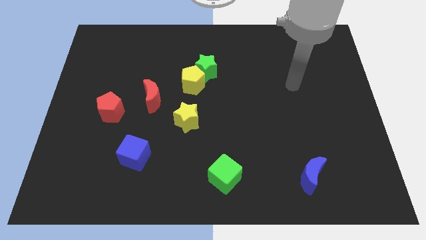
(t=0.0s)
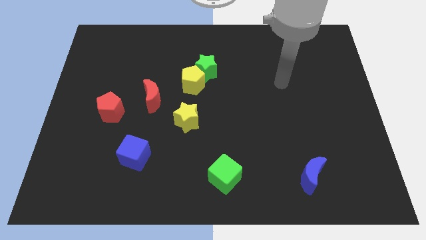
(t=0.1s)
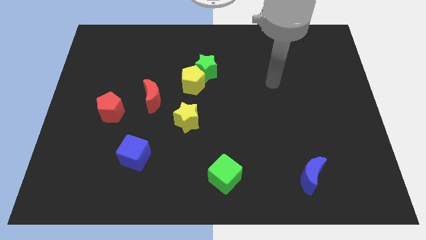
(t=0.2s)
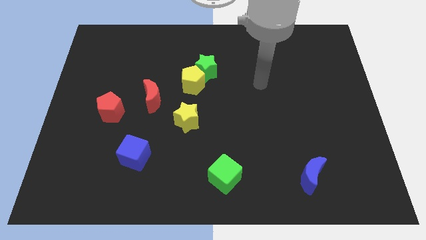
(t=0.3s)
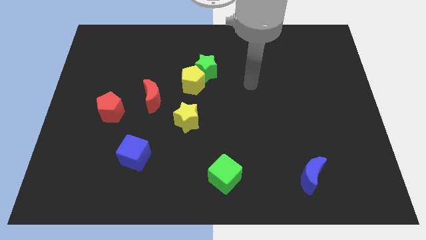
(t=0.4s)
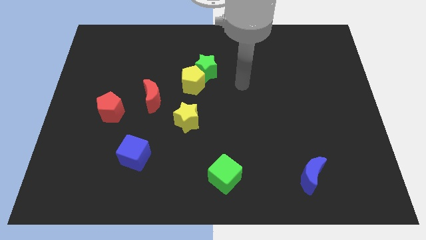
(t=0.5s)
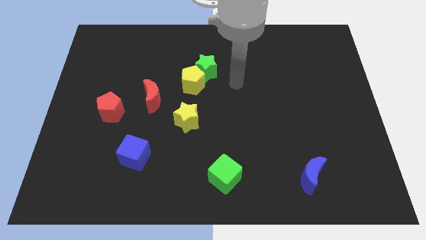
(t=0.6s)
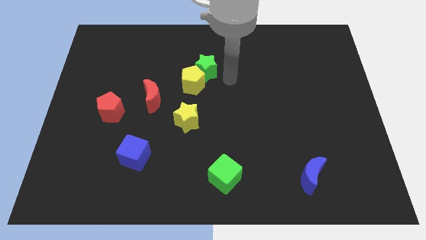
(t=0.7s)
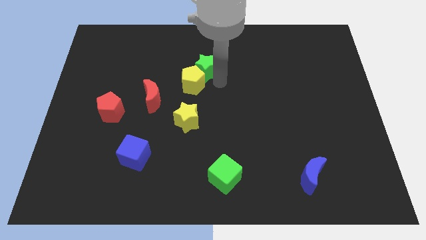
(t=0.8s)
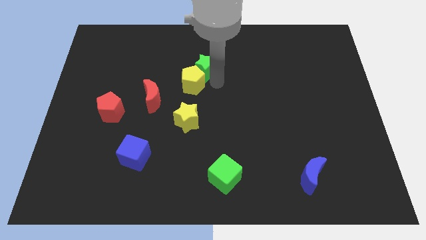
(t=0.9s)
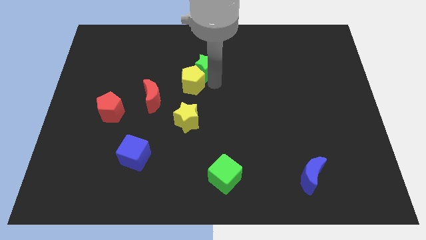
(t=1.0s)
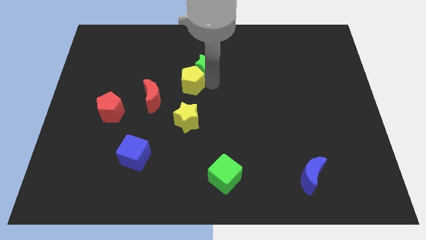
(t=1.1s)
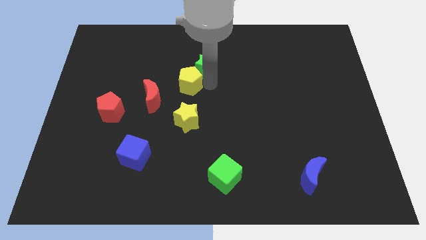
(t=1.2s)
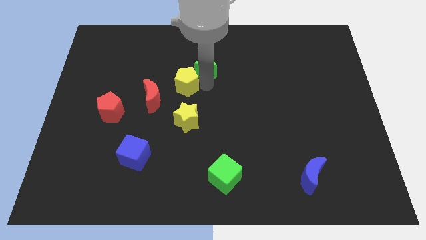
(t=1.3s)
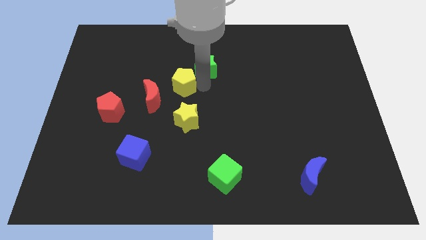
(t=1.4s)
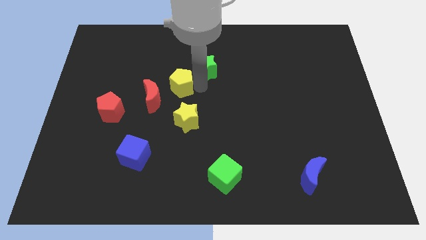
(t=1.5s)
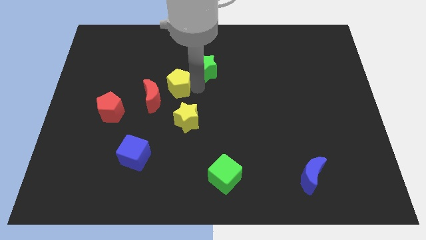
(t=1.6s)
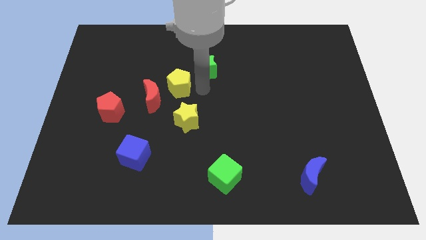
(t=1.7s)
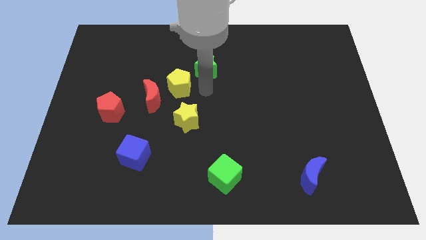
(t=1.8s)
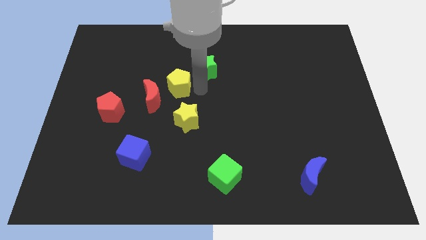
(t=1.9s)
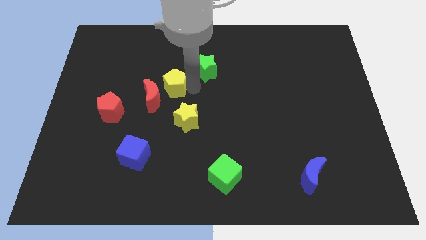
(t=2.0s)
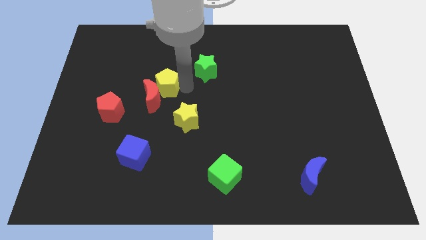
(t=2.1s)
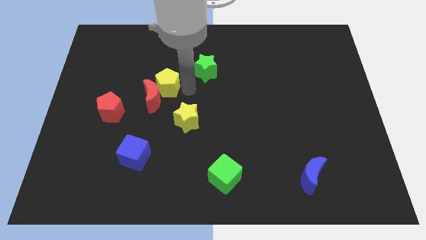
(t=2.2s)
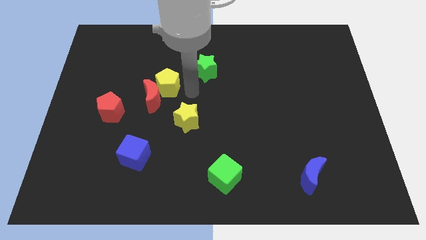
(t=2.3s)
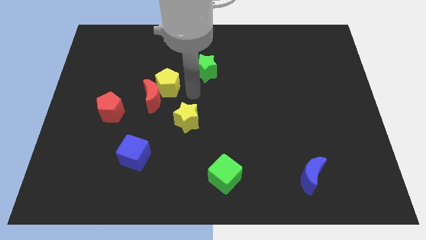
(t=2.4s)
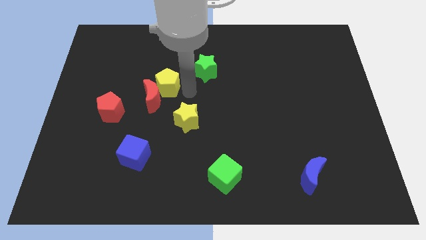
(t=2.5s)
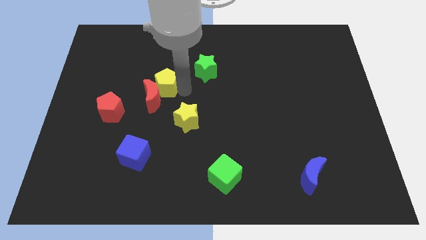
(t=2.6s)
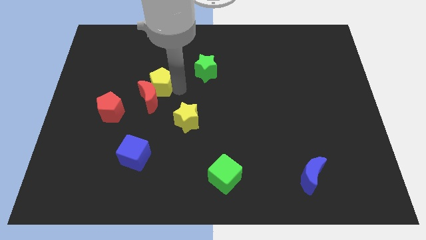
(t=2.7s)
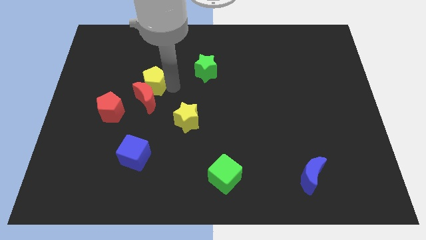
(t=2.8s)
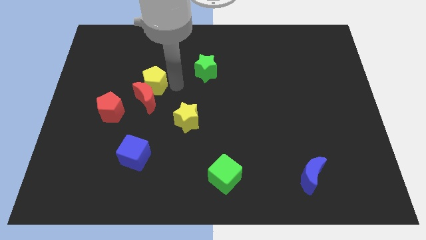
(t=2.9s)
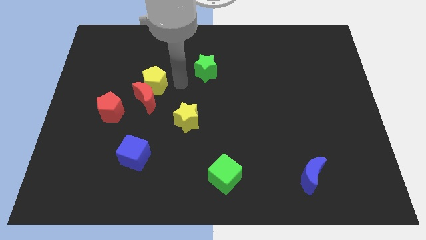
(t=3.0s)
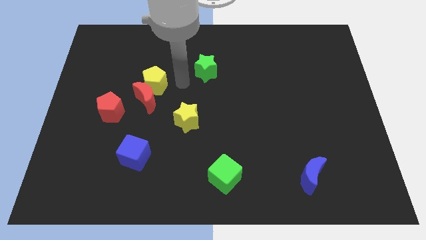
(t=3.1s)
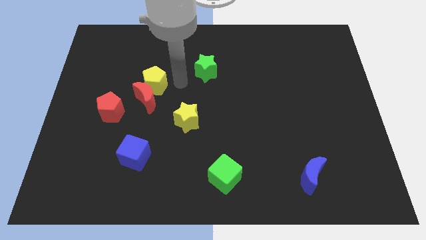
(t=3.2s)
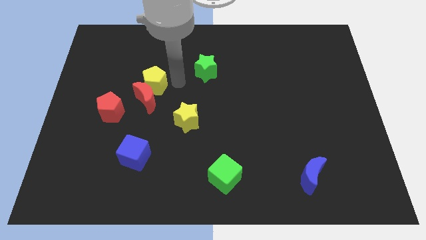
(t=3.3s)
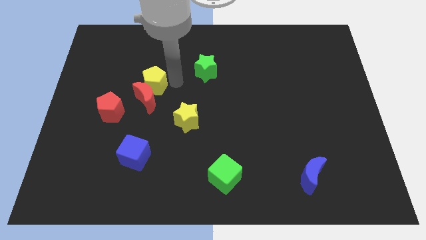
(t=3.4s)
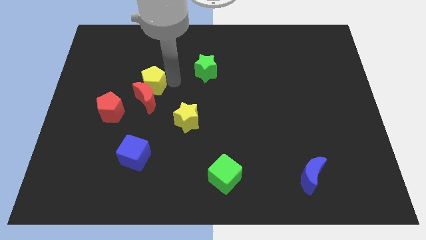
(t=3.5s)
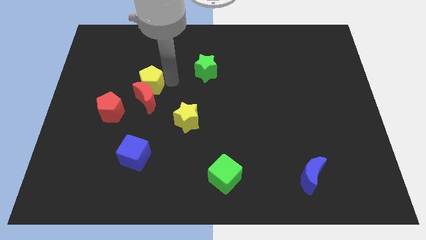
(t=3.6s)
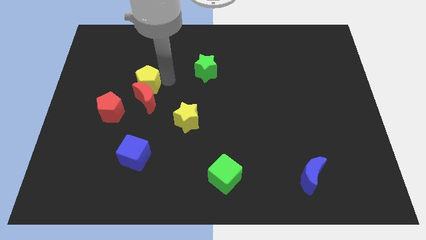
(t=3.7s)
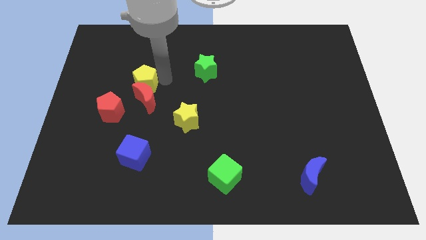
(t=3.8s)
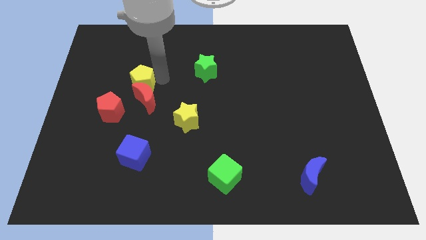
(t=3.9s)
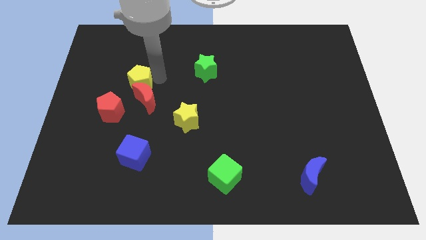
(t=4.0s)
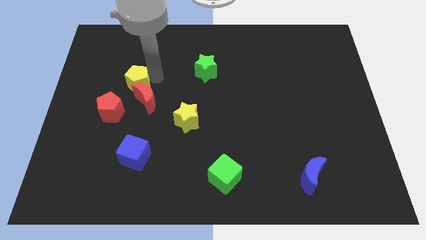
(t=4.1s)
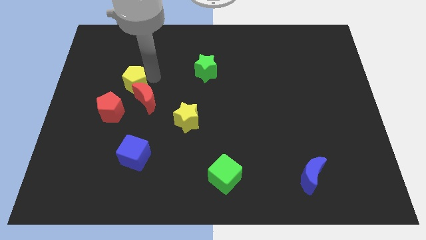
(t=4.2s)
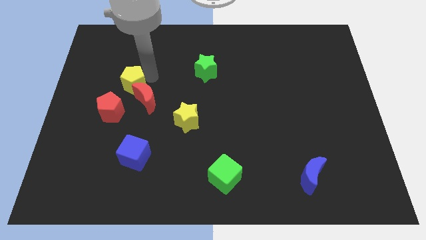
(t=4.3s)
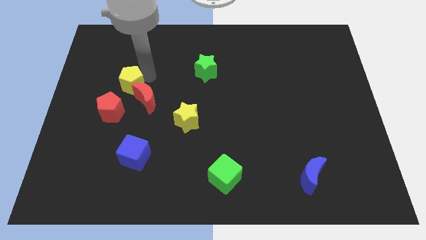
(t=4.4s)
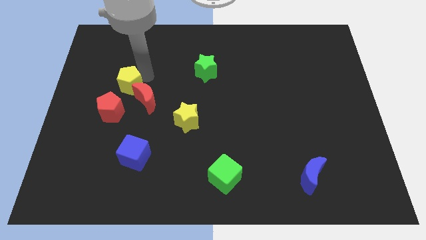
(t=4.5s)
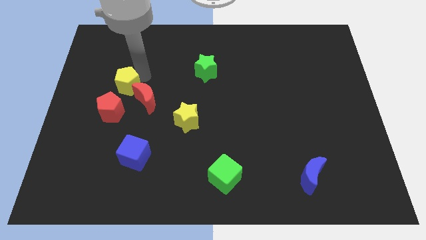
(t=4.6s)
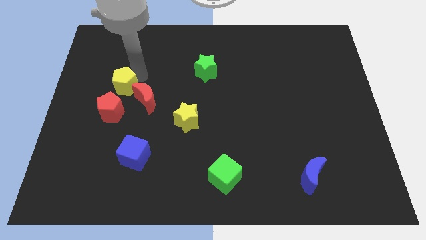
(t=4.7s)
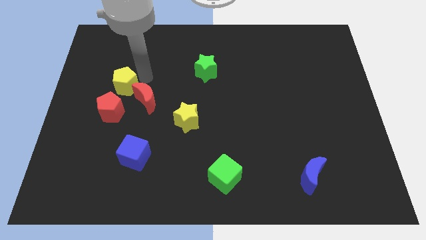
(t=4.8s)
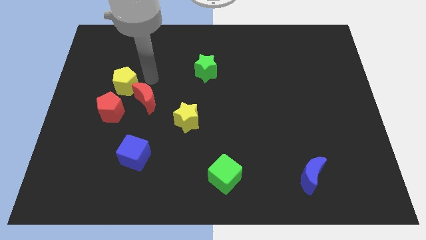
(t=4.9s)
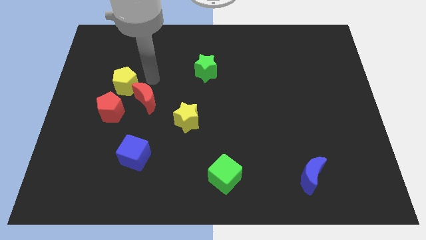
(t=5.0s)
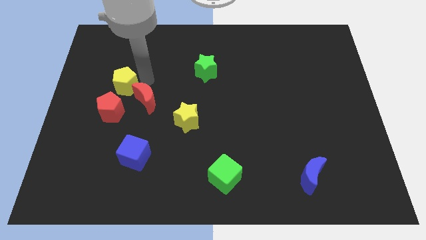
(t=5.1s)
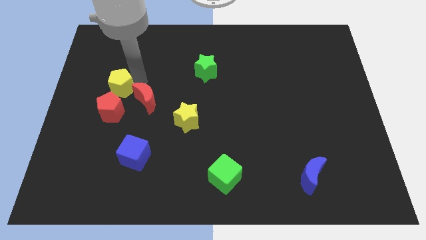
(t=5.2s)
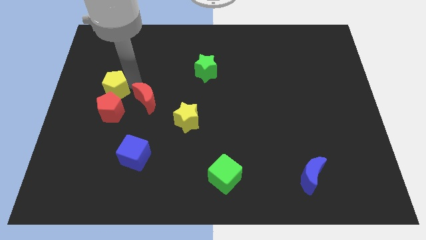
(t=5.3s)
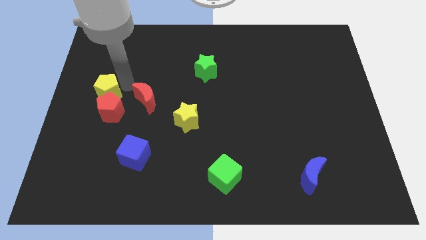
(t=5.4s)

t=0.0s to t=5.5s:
push the yellow pentagon to the center left

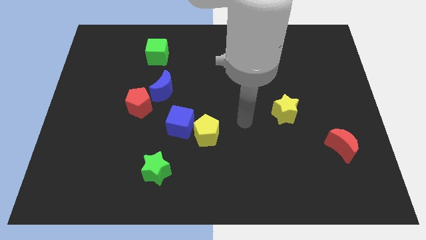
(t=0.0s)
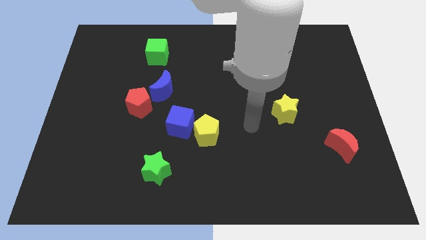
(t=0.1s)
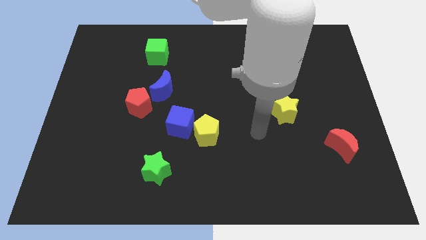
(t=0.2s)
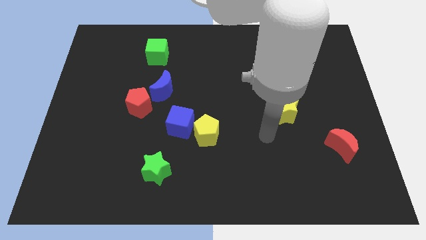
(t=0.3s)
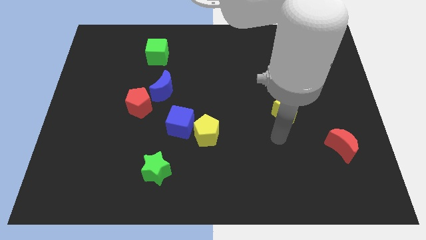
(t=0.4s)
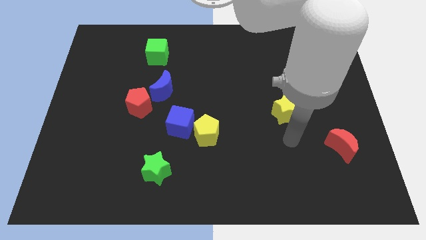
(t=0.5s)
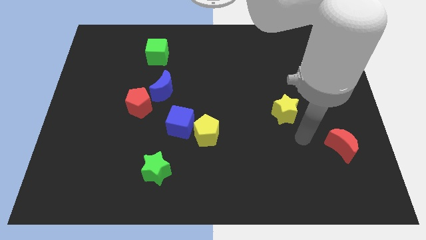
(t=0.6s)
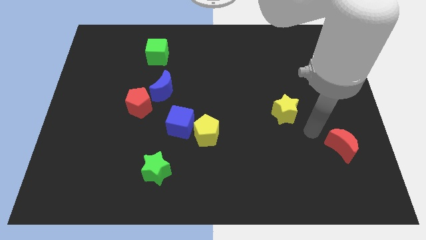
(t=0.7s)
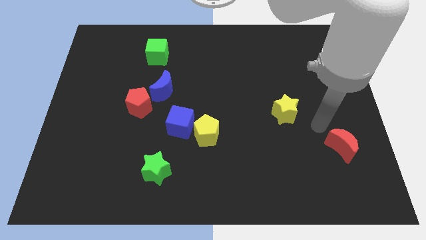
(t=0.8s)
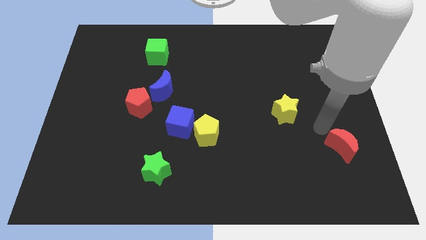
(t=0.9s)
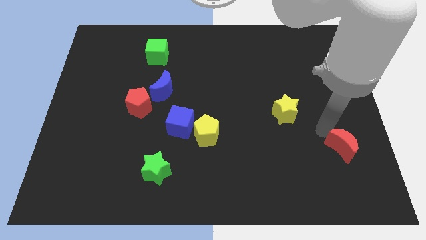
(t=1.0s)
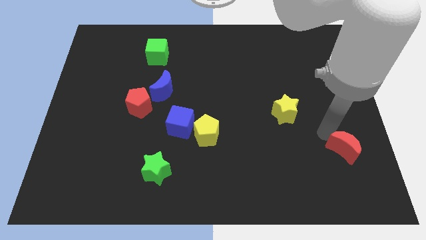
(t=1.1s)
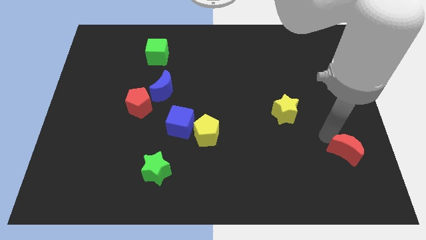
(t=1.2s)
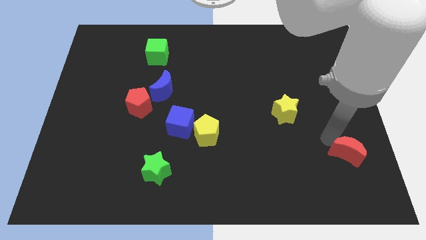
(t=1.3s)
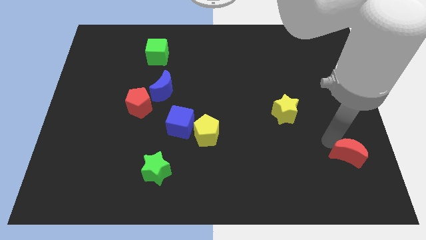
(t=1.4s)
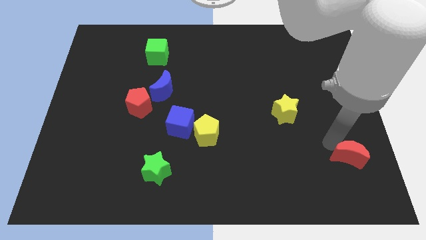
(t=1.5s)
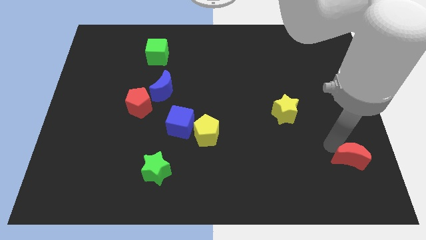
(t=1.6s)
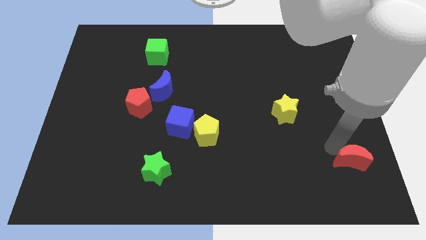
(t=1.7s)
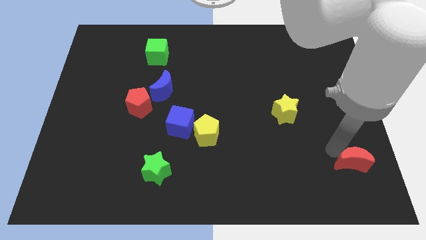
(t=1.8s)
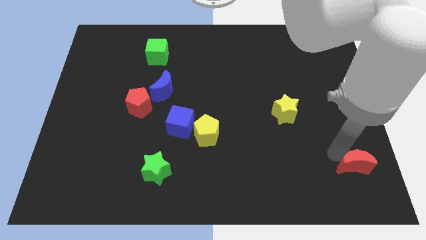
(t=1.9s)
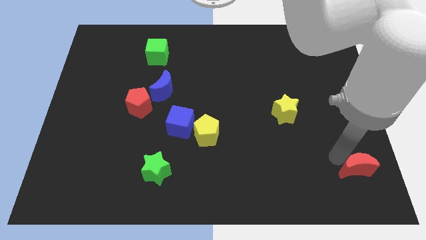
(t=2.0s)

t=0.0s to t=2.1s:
push the red moon to the lower right corner
